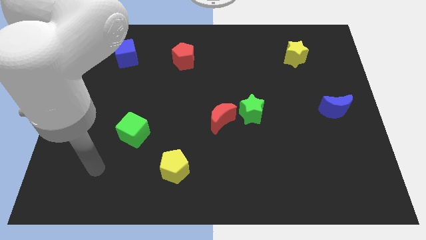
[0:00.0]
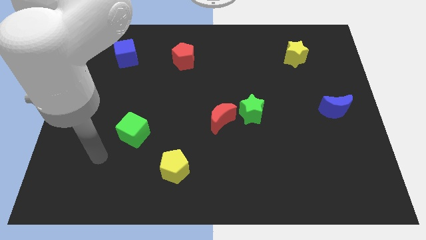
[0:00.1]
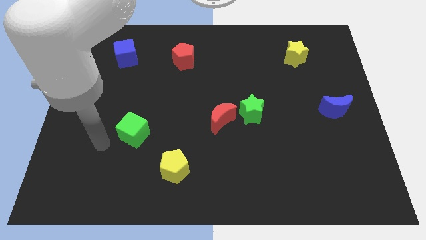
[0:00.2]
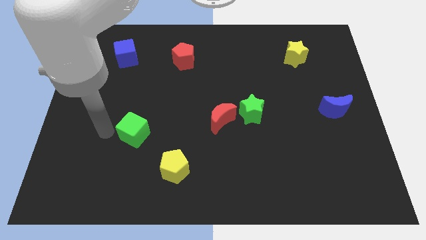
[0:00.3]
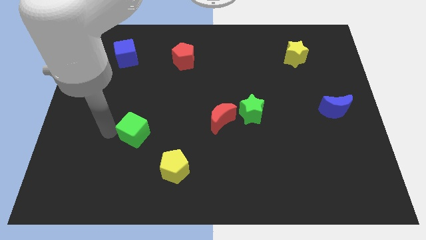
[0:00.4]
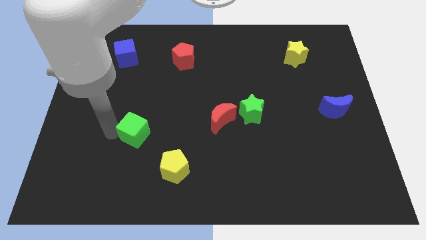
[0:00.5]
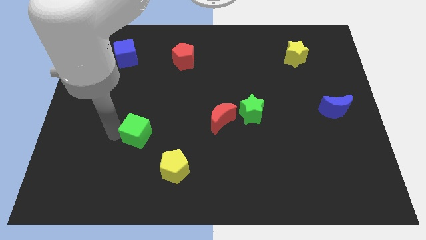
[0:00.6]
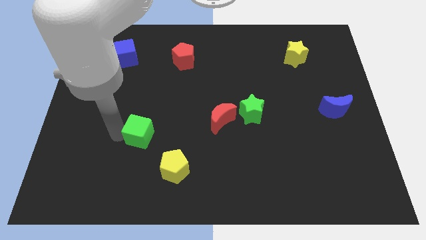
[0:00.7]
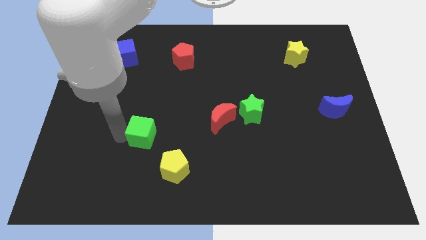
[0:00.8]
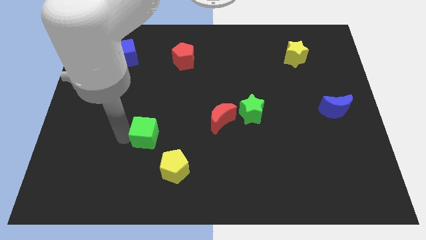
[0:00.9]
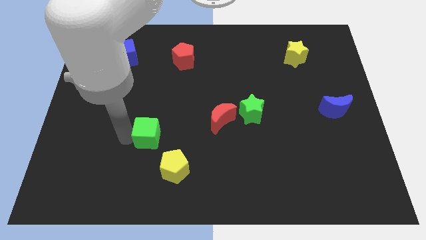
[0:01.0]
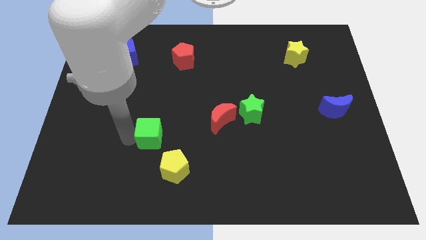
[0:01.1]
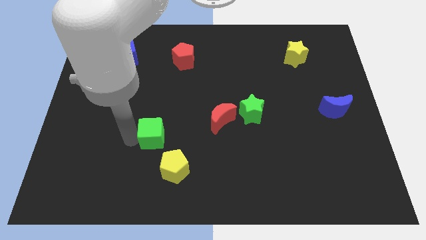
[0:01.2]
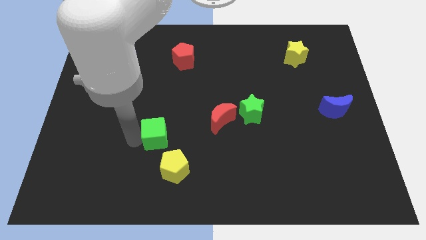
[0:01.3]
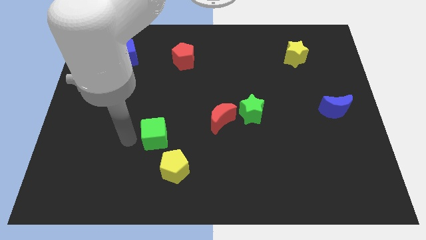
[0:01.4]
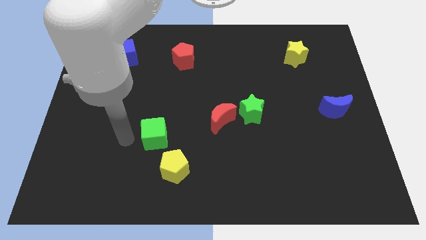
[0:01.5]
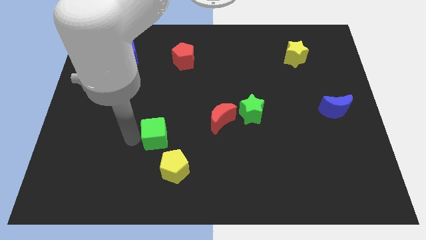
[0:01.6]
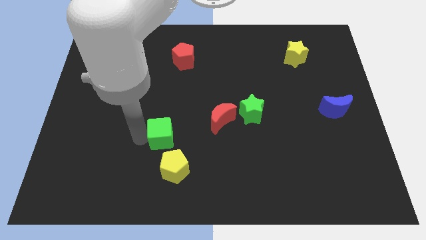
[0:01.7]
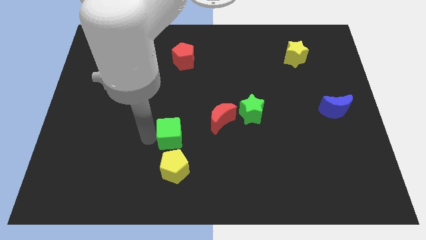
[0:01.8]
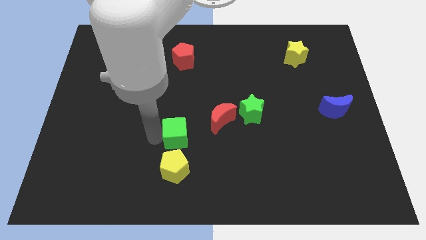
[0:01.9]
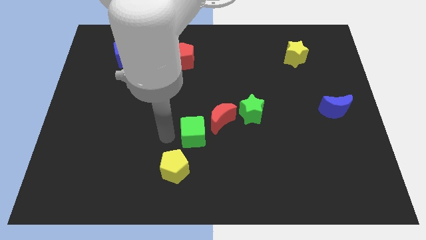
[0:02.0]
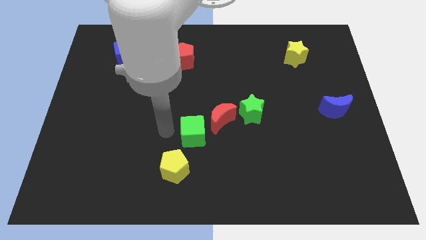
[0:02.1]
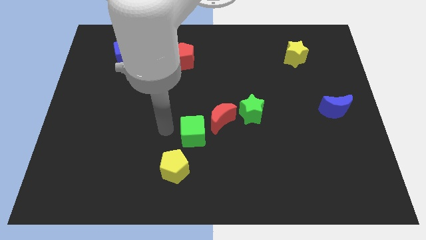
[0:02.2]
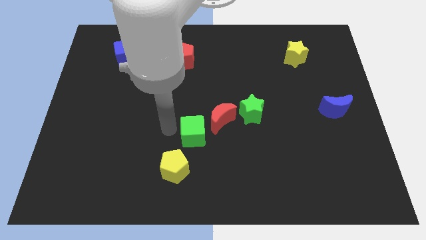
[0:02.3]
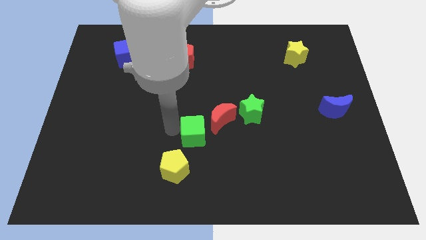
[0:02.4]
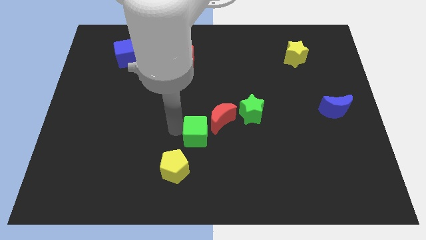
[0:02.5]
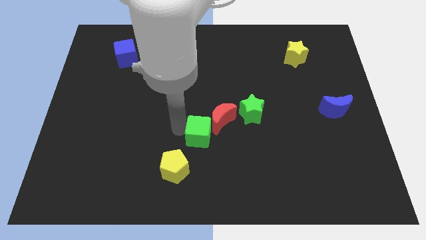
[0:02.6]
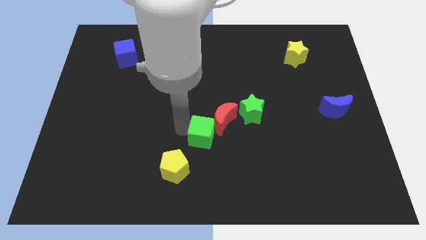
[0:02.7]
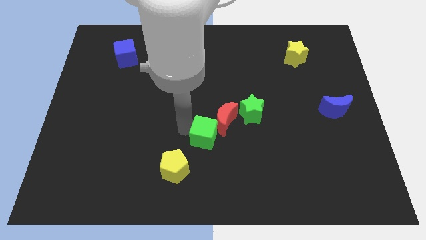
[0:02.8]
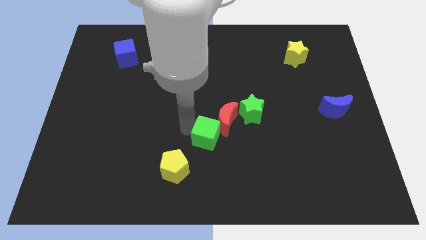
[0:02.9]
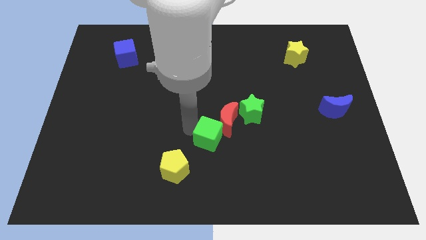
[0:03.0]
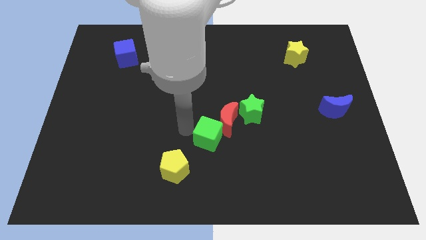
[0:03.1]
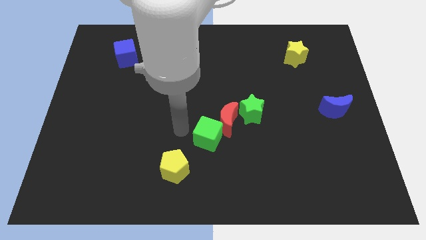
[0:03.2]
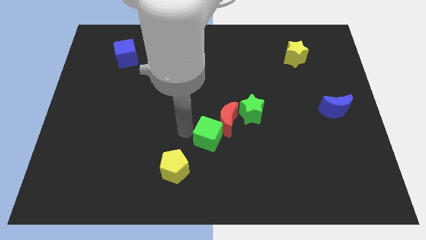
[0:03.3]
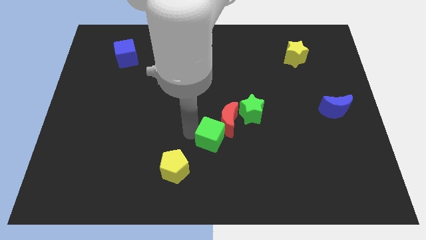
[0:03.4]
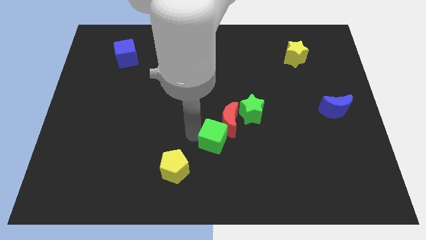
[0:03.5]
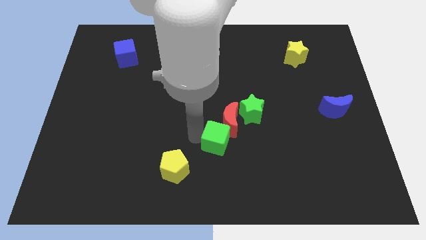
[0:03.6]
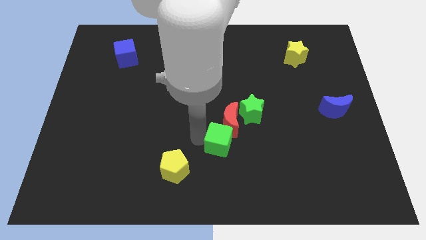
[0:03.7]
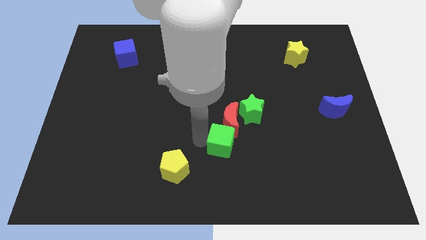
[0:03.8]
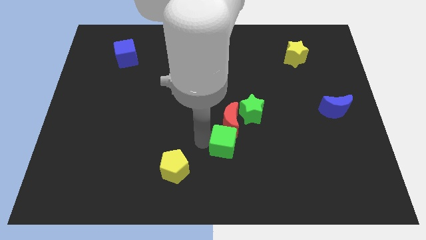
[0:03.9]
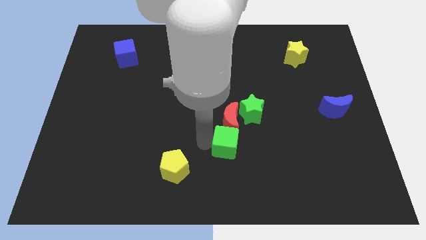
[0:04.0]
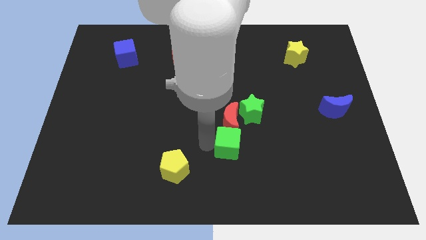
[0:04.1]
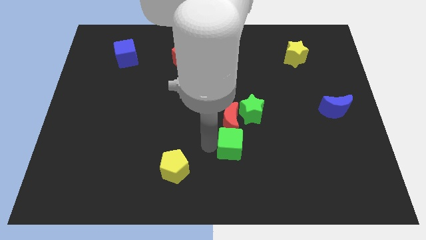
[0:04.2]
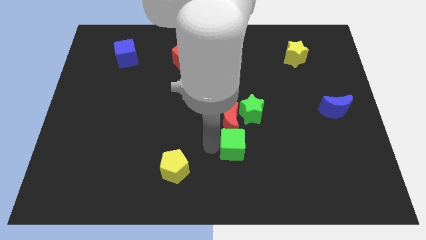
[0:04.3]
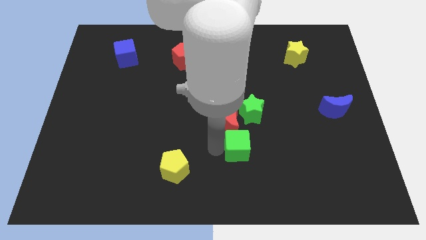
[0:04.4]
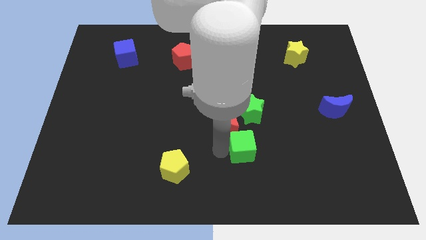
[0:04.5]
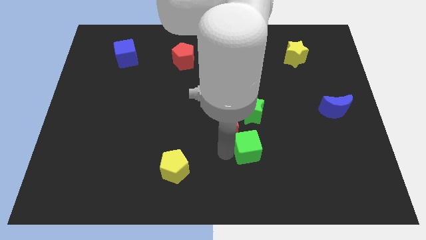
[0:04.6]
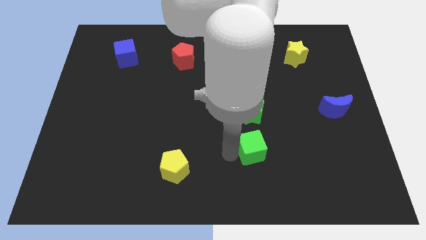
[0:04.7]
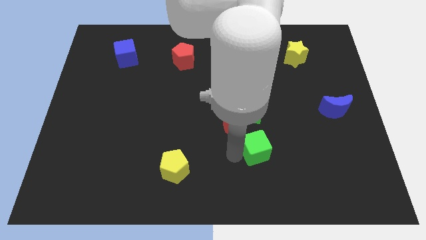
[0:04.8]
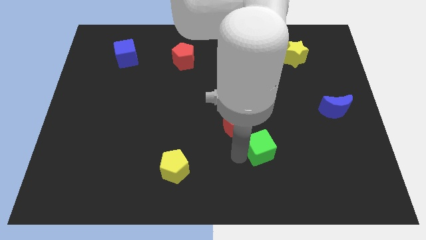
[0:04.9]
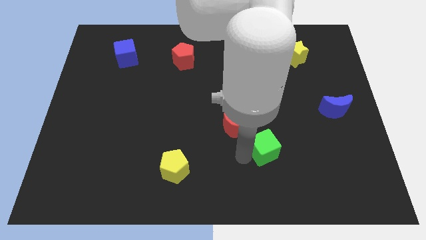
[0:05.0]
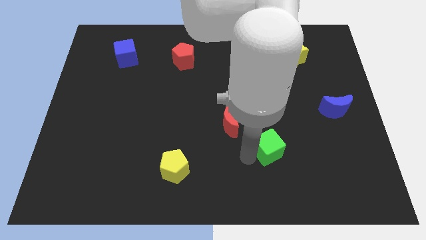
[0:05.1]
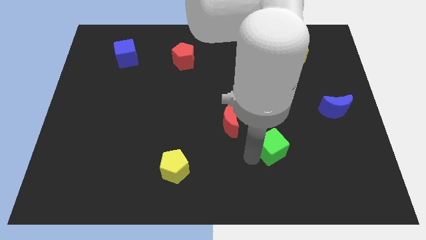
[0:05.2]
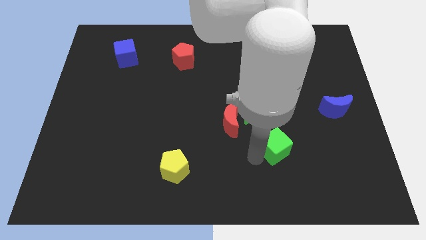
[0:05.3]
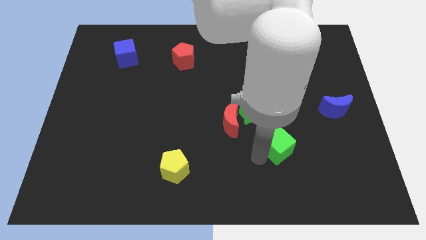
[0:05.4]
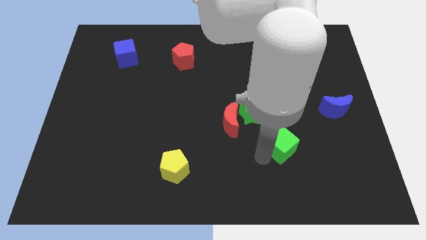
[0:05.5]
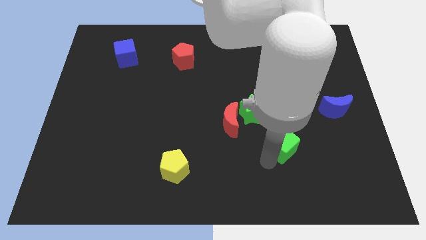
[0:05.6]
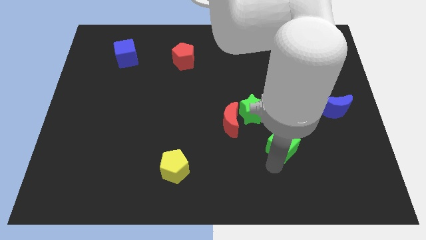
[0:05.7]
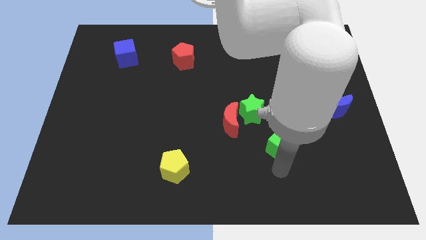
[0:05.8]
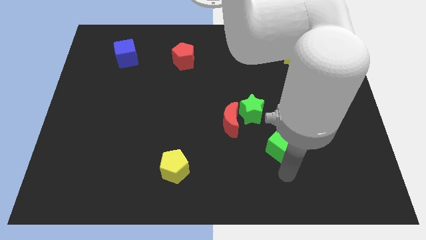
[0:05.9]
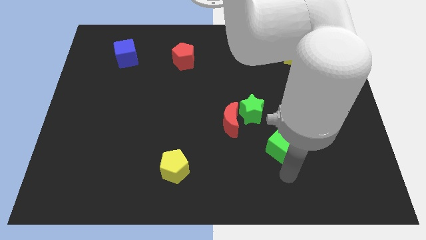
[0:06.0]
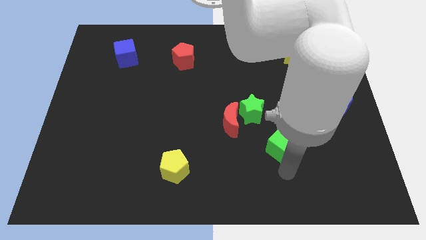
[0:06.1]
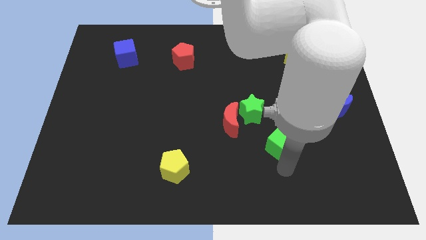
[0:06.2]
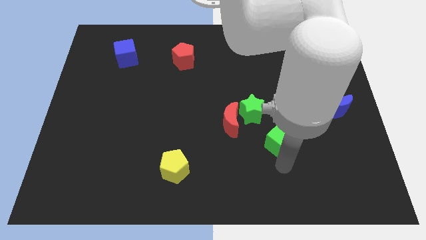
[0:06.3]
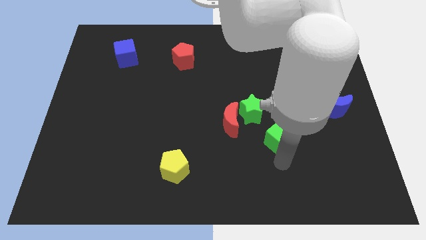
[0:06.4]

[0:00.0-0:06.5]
slide the green cube to the right side of the red moon

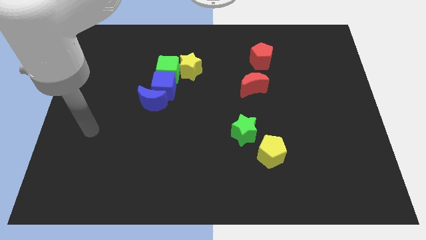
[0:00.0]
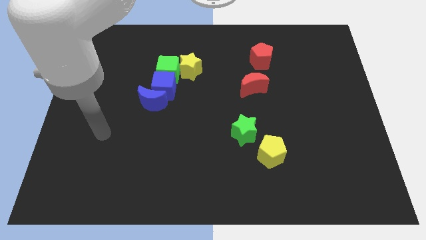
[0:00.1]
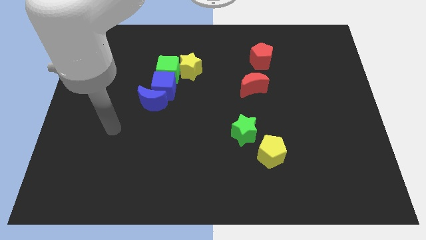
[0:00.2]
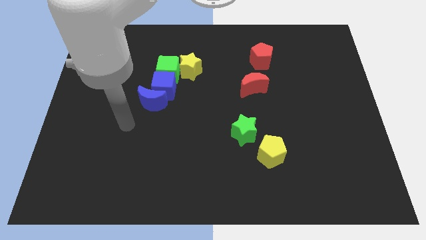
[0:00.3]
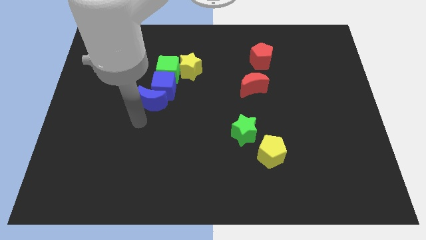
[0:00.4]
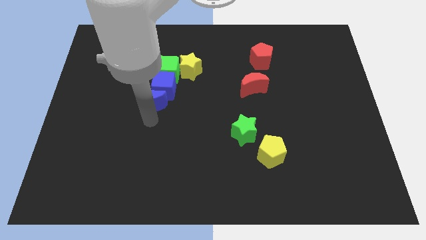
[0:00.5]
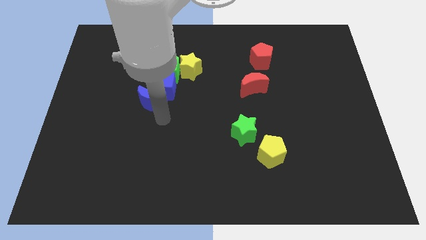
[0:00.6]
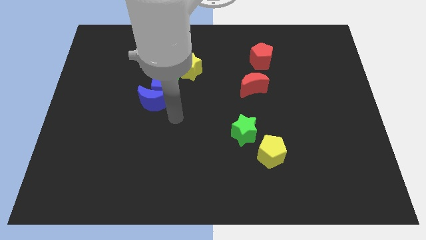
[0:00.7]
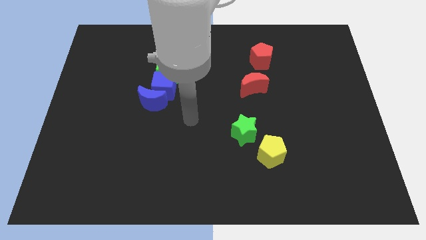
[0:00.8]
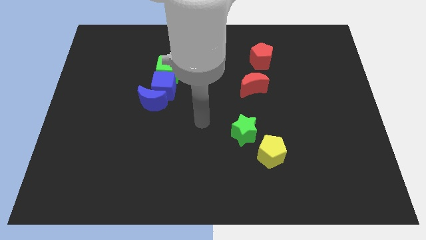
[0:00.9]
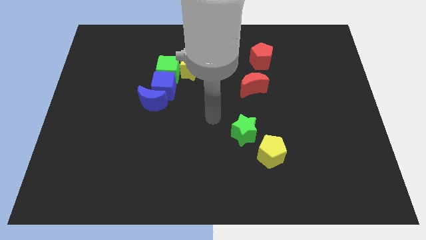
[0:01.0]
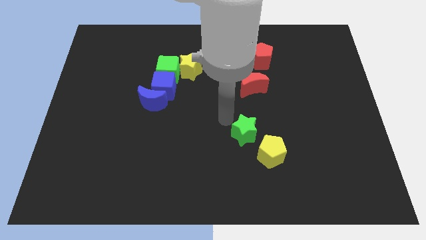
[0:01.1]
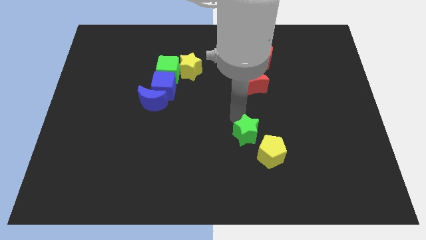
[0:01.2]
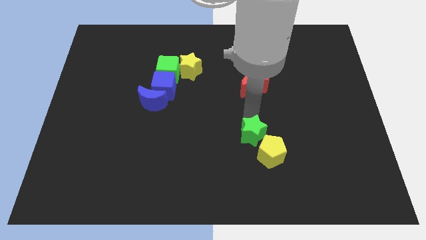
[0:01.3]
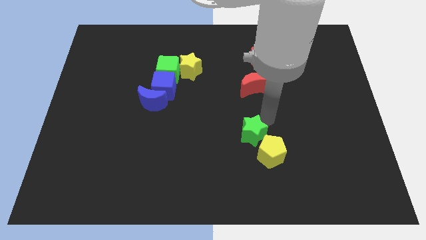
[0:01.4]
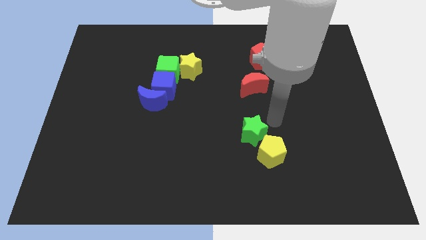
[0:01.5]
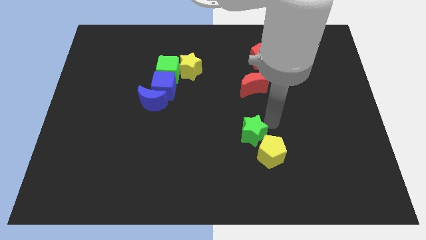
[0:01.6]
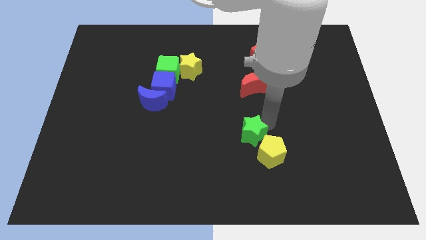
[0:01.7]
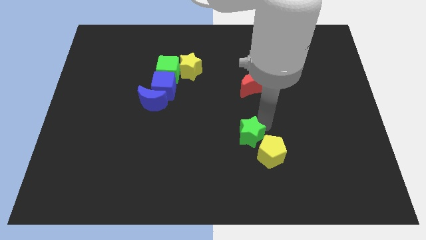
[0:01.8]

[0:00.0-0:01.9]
move the green star to the left of the yellow pentagon
